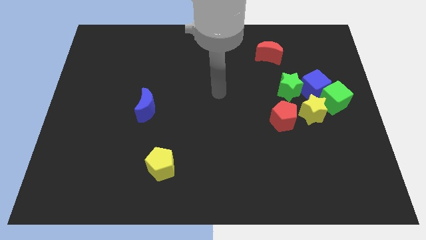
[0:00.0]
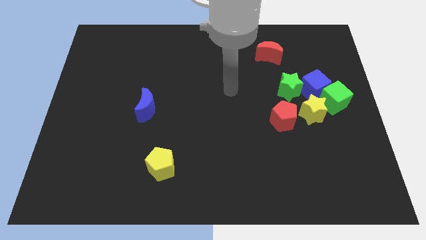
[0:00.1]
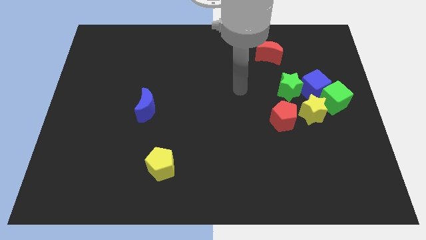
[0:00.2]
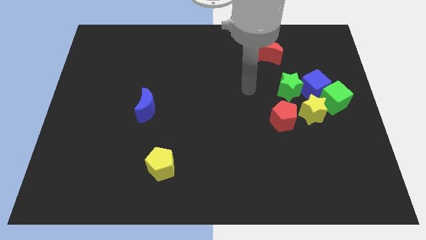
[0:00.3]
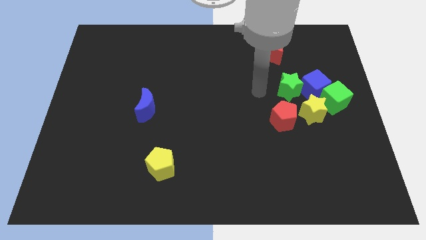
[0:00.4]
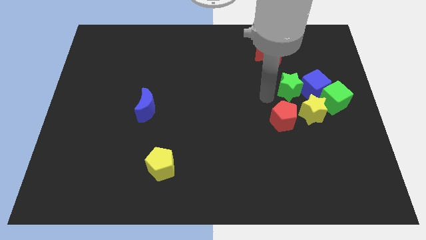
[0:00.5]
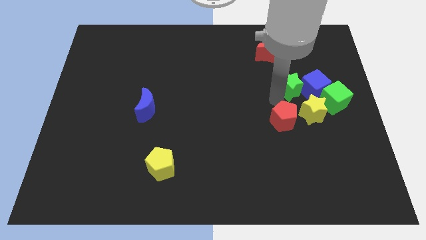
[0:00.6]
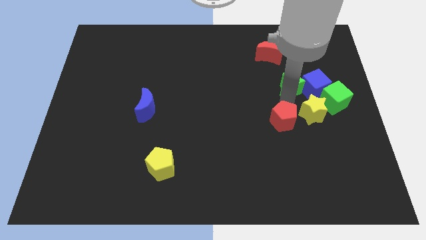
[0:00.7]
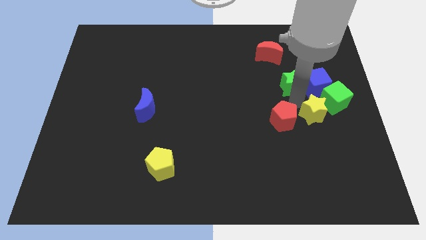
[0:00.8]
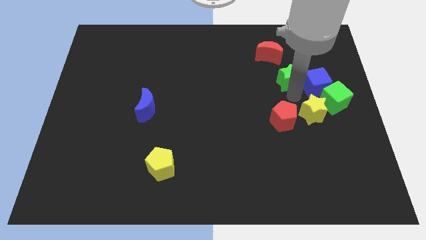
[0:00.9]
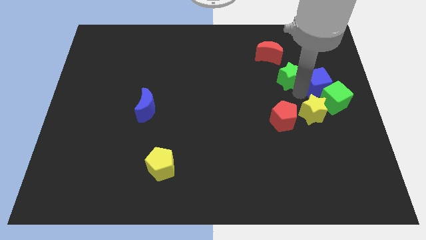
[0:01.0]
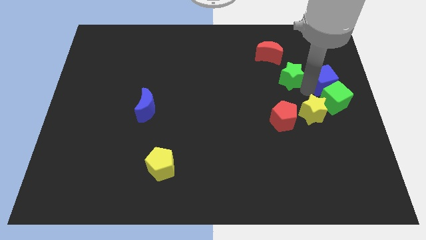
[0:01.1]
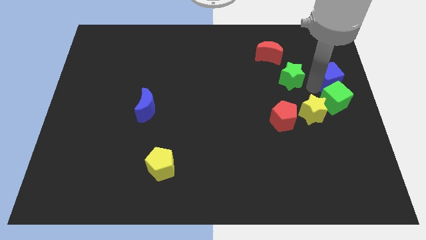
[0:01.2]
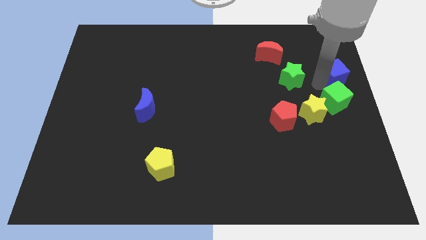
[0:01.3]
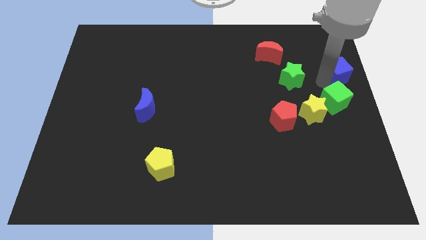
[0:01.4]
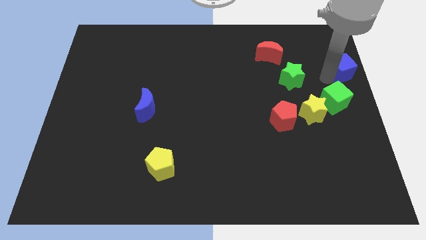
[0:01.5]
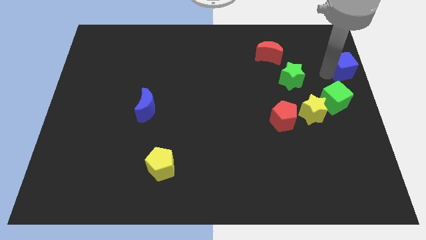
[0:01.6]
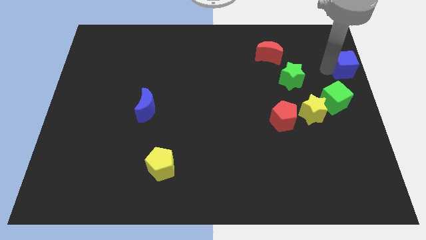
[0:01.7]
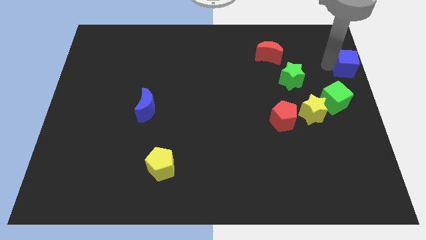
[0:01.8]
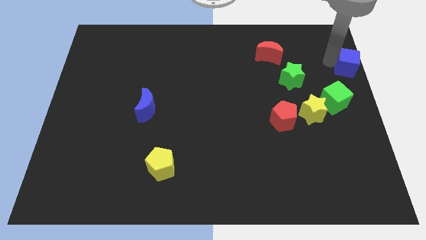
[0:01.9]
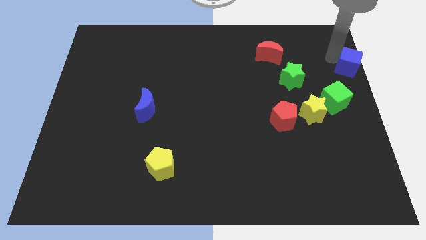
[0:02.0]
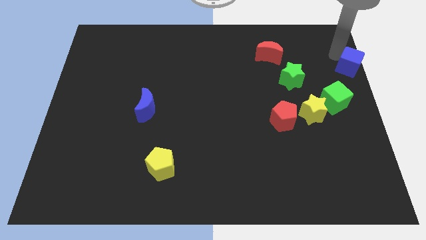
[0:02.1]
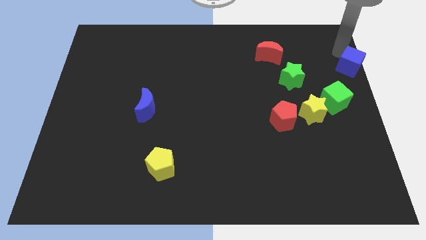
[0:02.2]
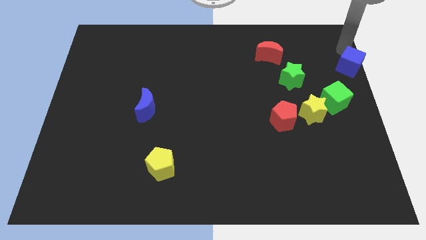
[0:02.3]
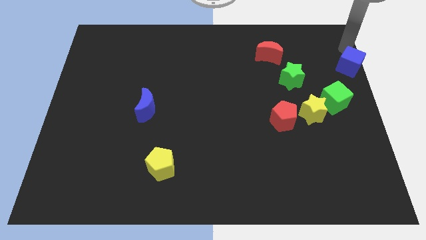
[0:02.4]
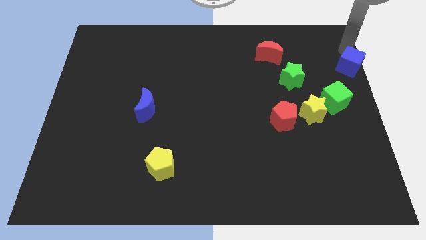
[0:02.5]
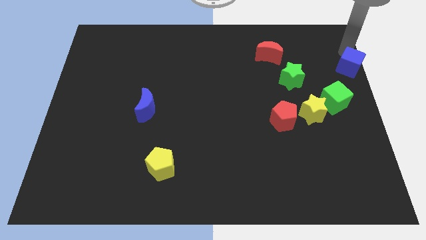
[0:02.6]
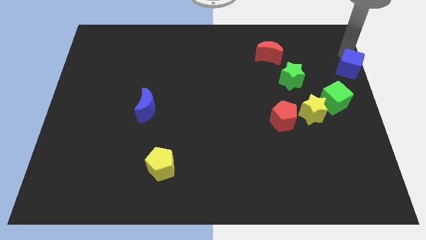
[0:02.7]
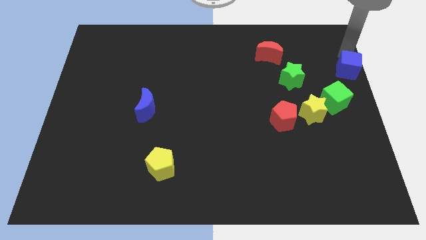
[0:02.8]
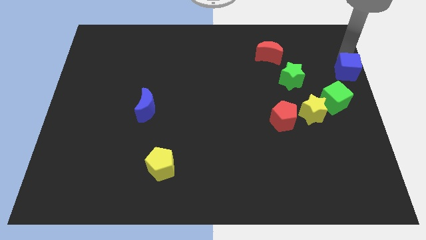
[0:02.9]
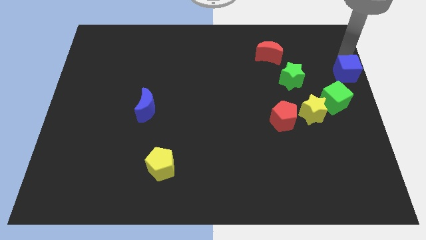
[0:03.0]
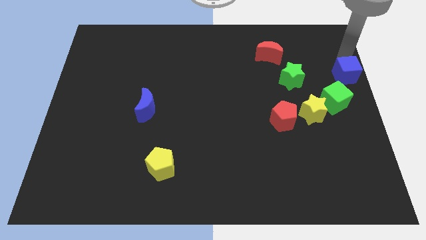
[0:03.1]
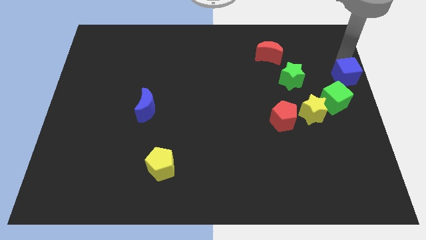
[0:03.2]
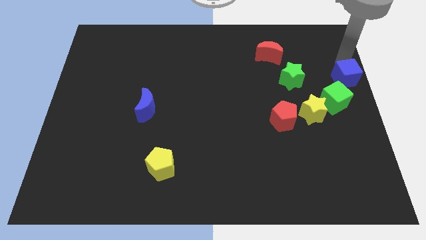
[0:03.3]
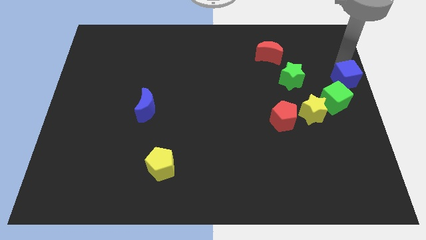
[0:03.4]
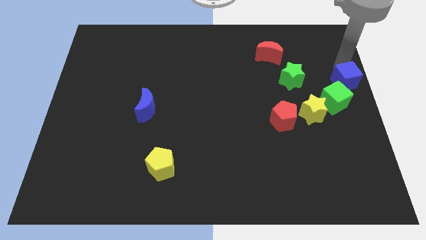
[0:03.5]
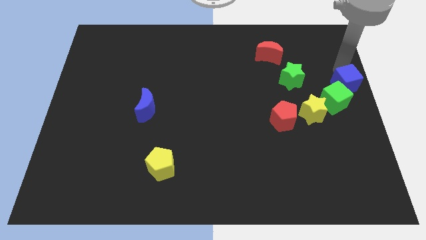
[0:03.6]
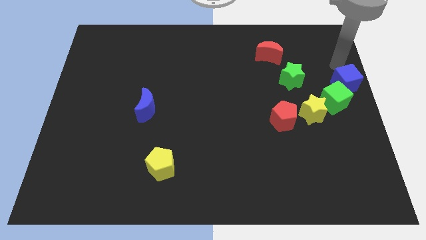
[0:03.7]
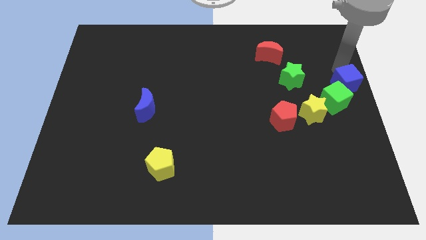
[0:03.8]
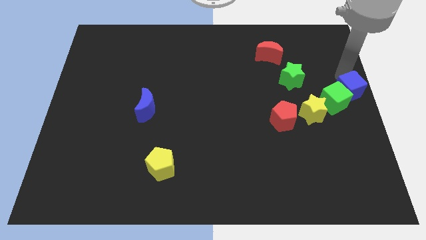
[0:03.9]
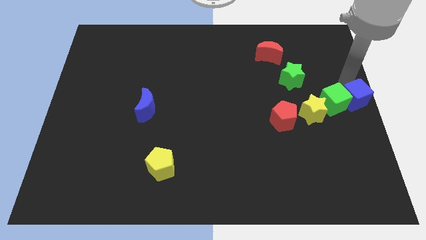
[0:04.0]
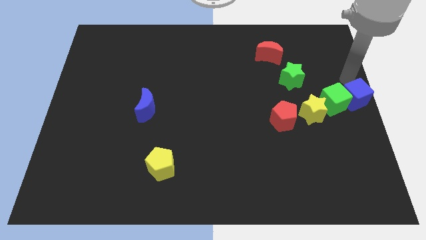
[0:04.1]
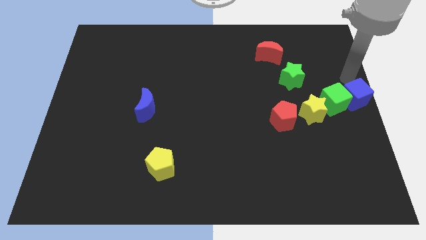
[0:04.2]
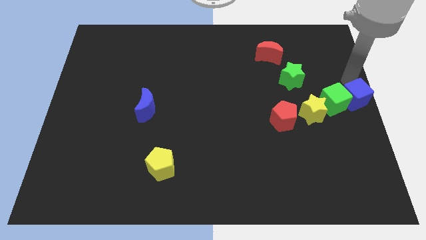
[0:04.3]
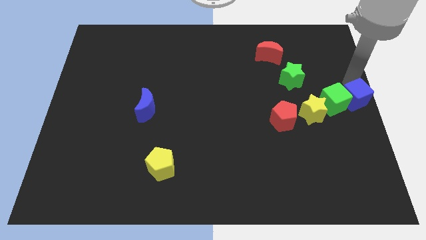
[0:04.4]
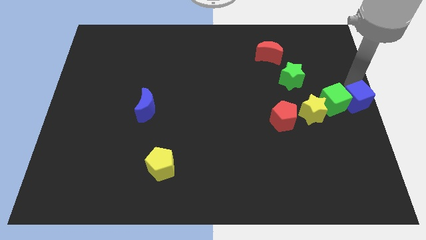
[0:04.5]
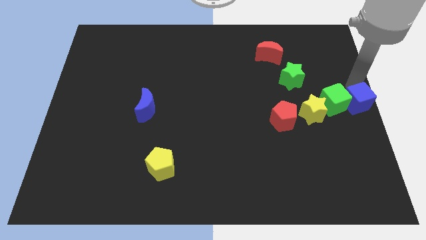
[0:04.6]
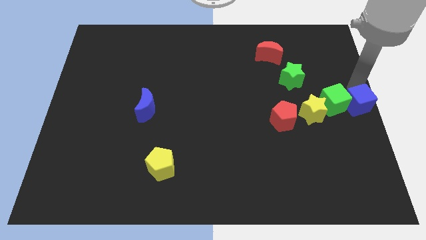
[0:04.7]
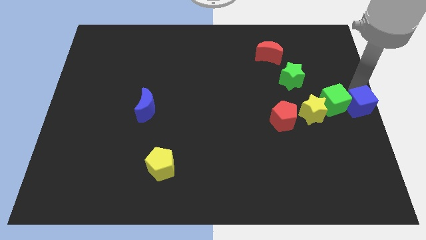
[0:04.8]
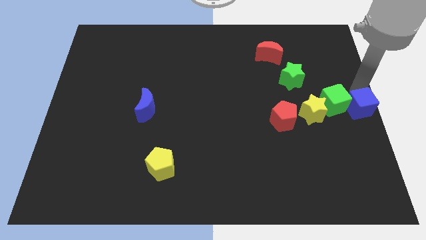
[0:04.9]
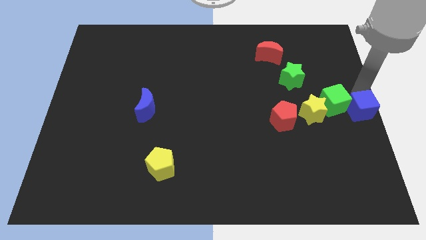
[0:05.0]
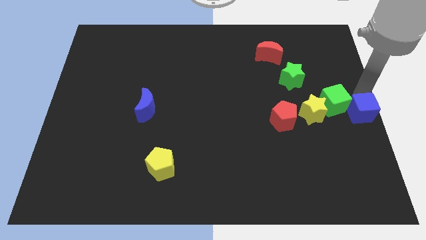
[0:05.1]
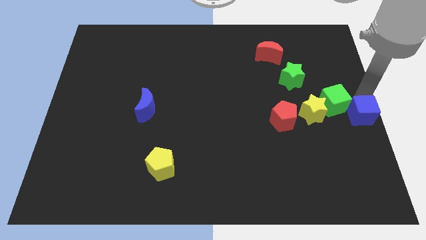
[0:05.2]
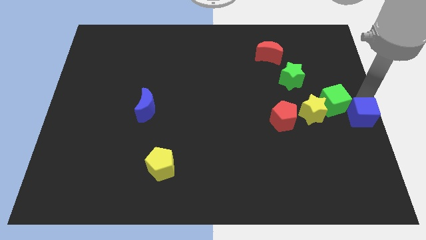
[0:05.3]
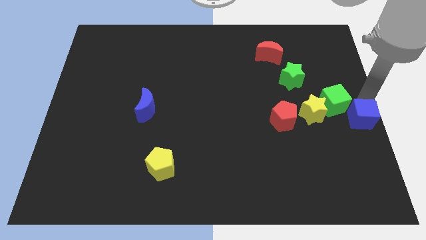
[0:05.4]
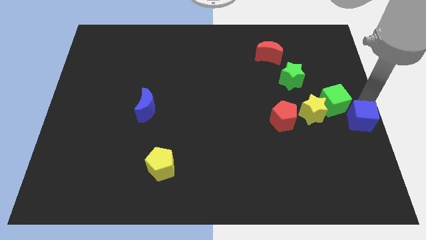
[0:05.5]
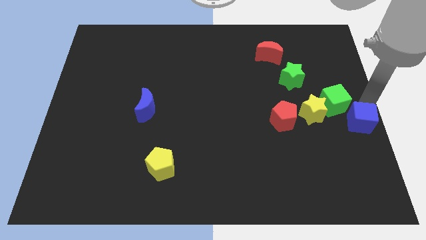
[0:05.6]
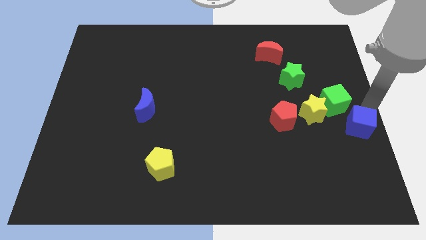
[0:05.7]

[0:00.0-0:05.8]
push the blue cube a bit downwards

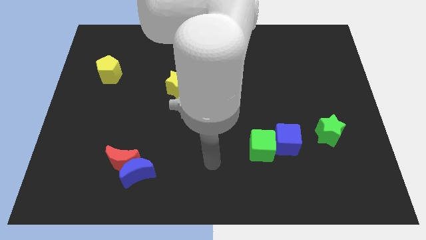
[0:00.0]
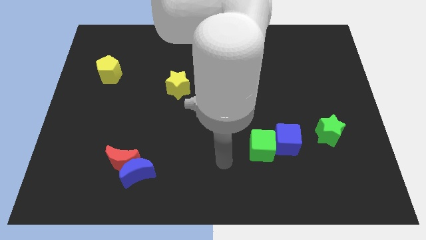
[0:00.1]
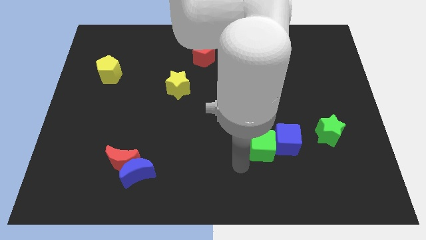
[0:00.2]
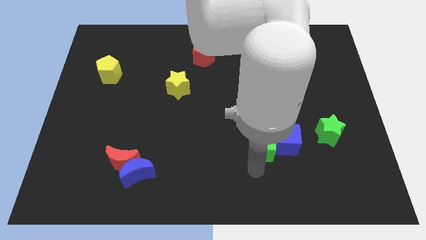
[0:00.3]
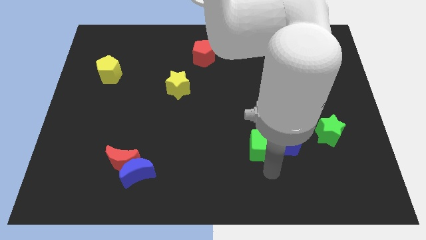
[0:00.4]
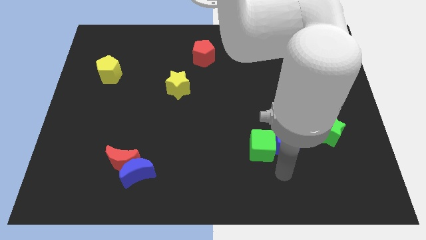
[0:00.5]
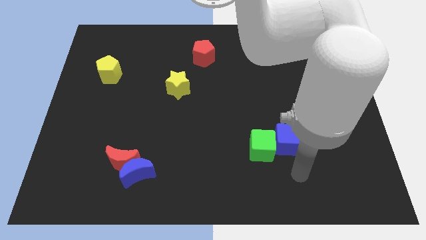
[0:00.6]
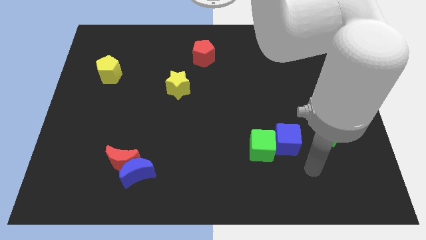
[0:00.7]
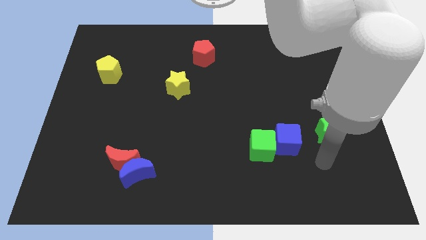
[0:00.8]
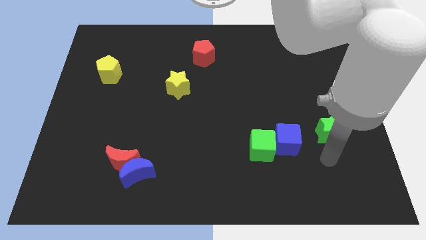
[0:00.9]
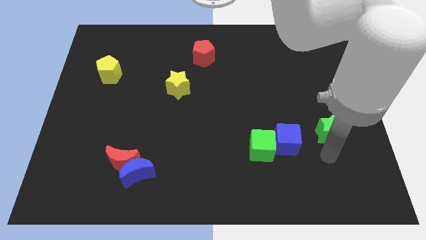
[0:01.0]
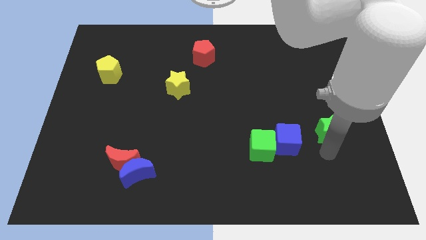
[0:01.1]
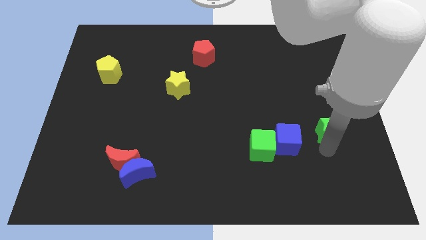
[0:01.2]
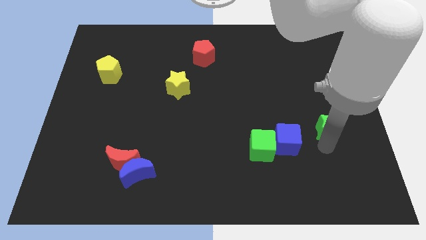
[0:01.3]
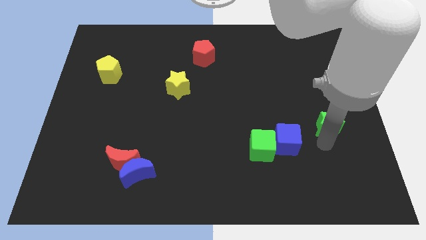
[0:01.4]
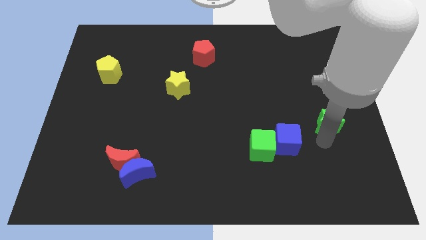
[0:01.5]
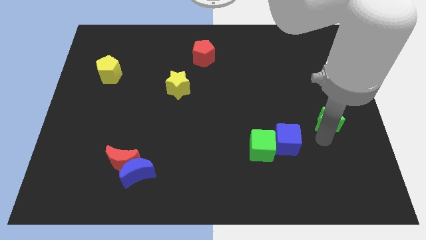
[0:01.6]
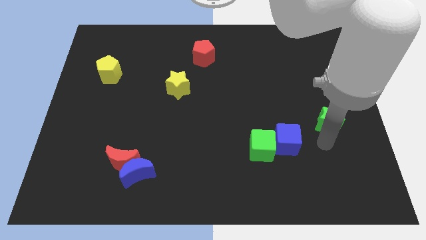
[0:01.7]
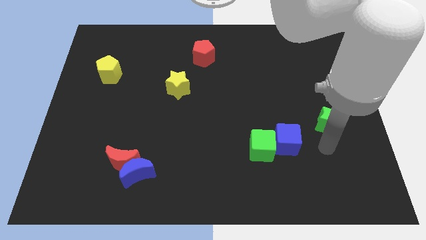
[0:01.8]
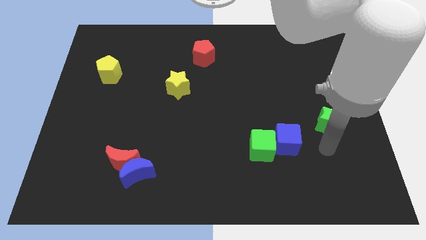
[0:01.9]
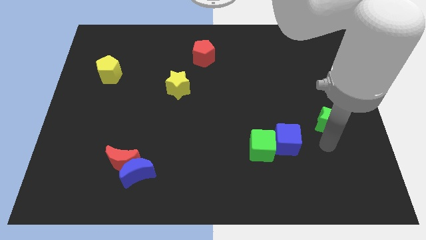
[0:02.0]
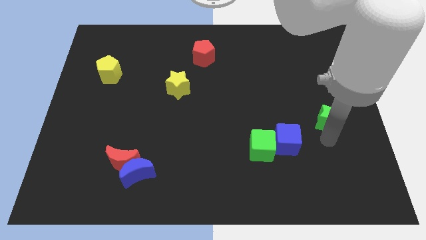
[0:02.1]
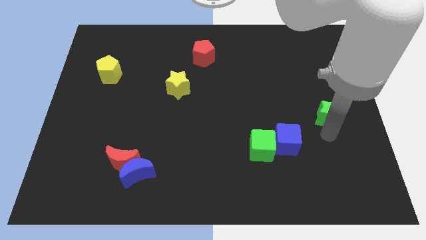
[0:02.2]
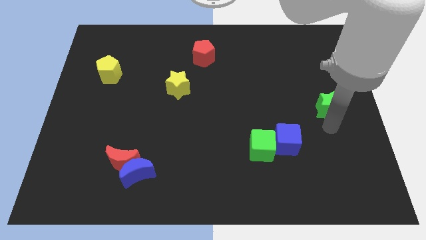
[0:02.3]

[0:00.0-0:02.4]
slide the green star upwards slightly
